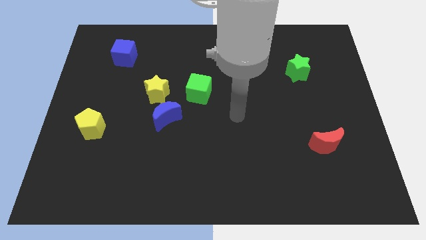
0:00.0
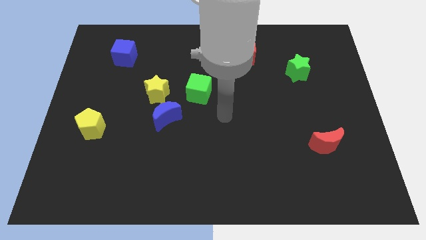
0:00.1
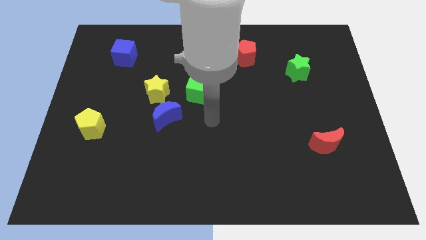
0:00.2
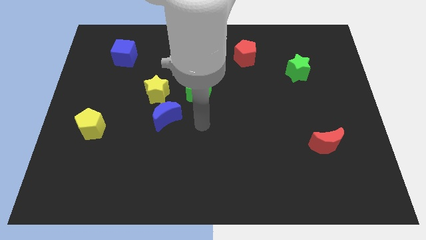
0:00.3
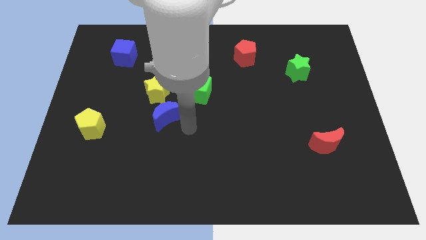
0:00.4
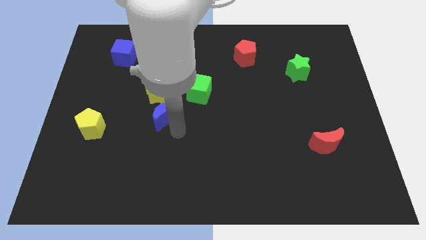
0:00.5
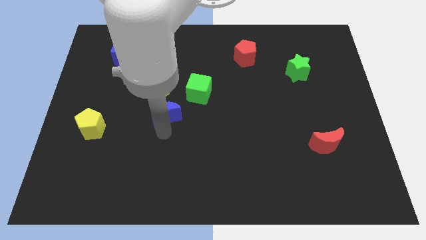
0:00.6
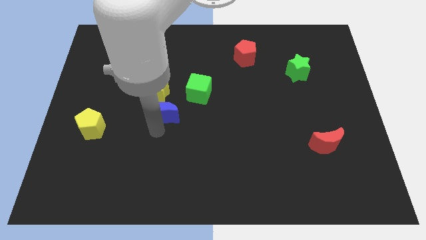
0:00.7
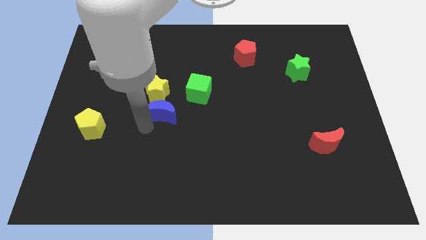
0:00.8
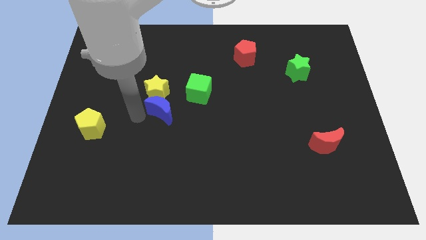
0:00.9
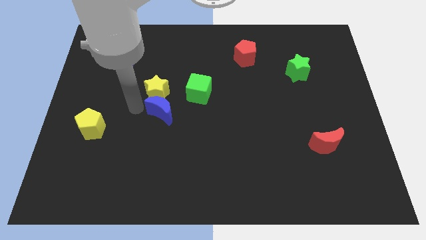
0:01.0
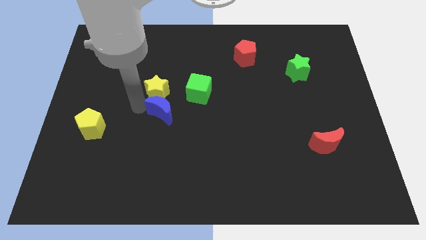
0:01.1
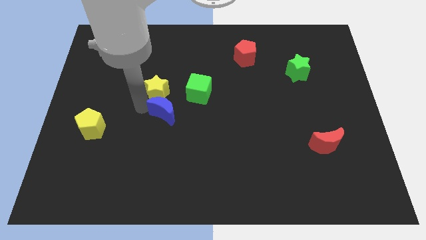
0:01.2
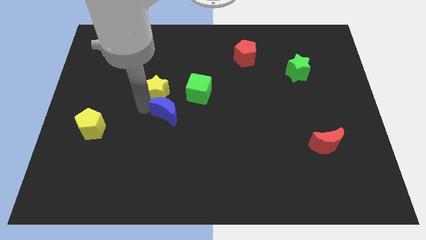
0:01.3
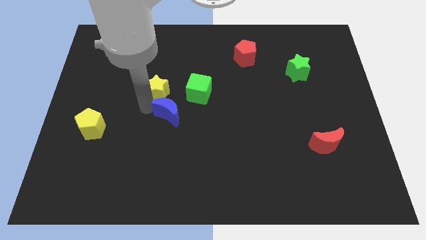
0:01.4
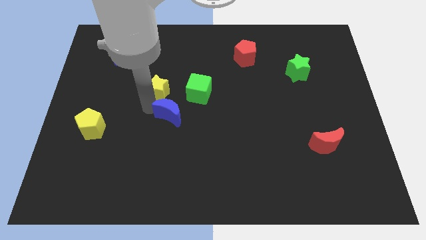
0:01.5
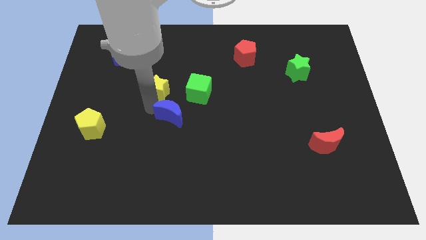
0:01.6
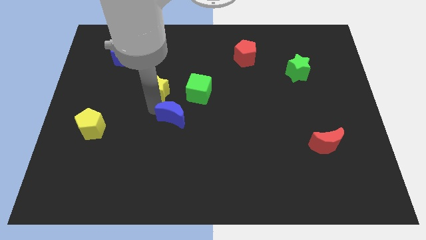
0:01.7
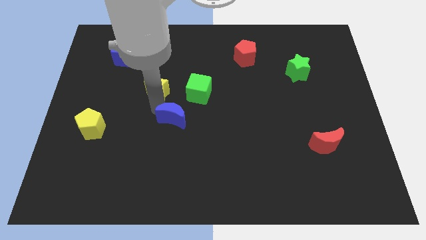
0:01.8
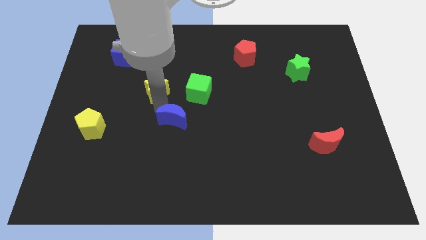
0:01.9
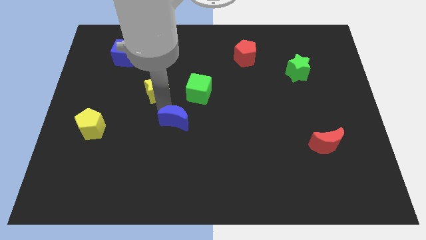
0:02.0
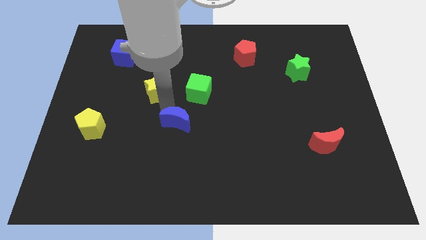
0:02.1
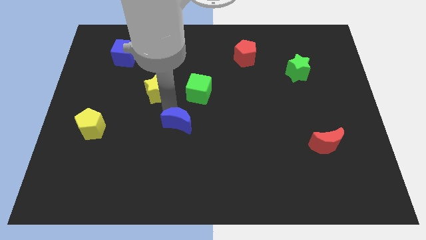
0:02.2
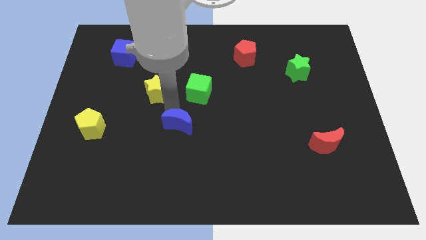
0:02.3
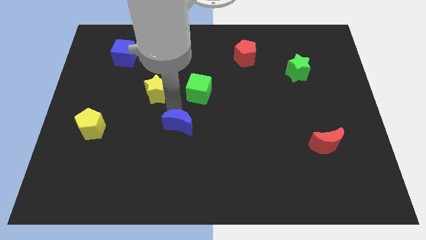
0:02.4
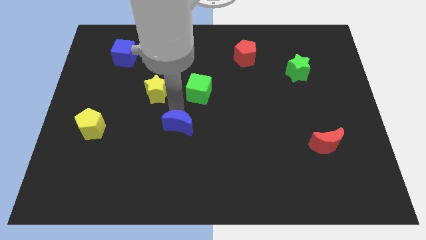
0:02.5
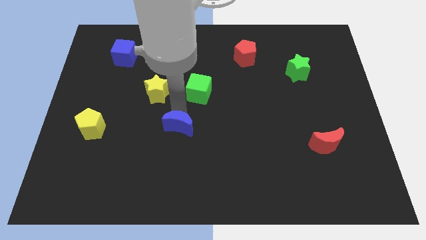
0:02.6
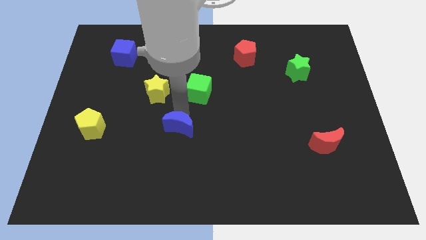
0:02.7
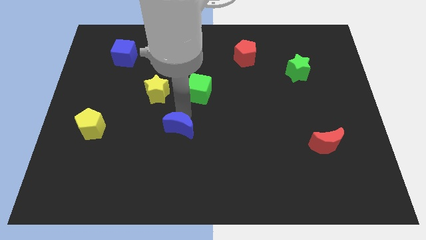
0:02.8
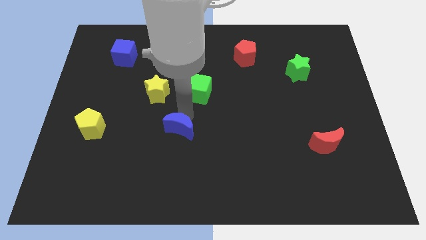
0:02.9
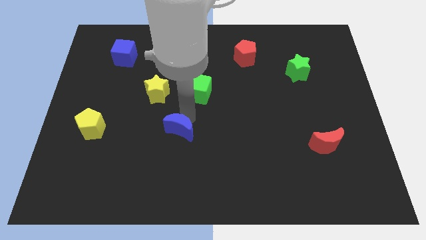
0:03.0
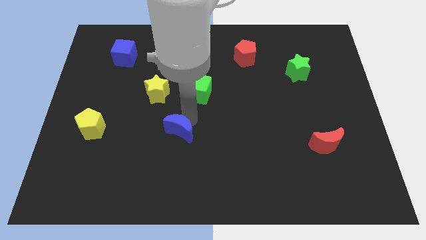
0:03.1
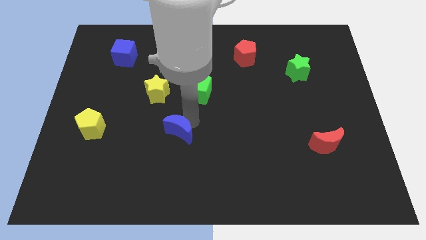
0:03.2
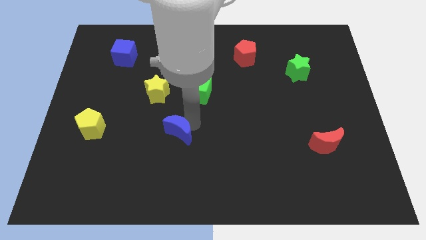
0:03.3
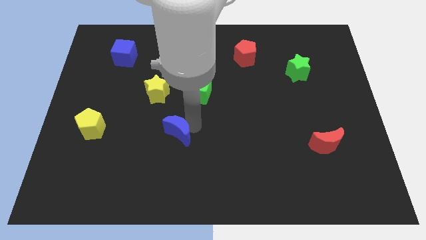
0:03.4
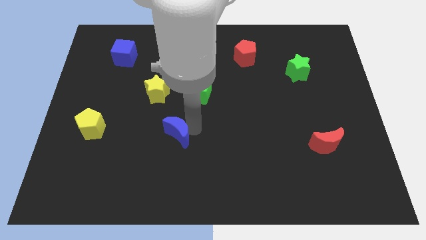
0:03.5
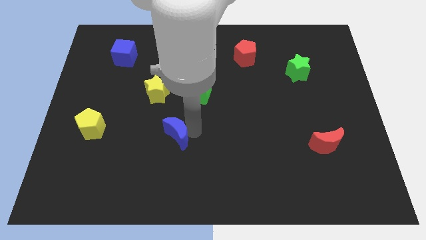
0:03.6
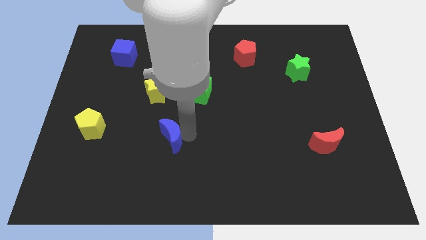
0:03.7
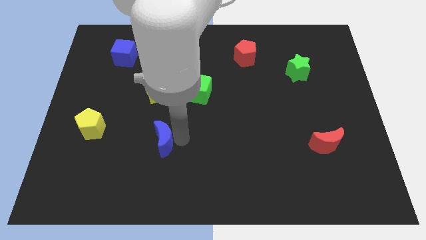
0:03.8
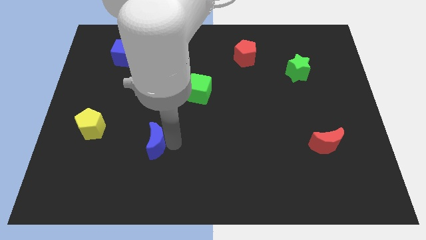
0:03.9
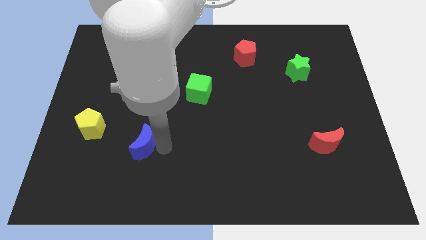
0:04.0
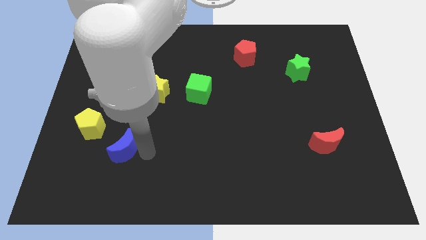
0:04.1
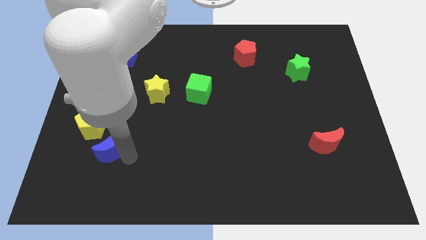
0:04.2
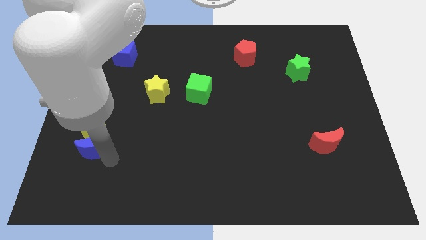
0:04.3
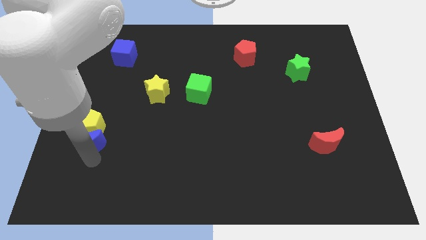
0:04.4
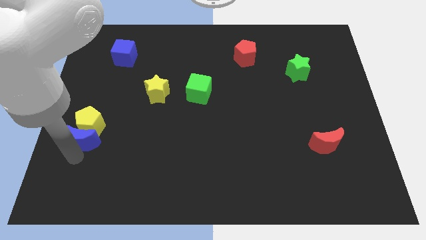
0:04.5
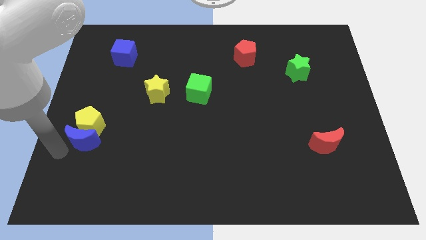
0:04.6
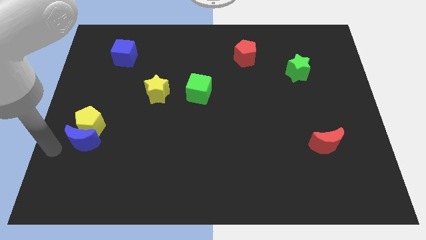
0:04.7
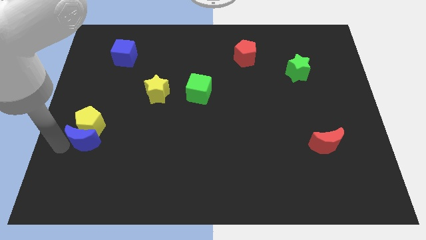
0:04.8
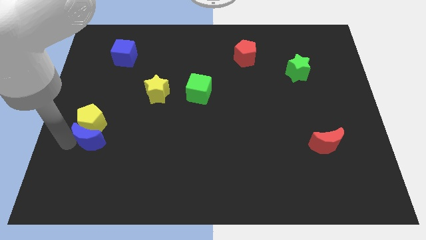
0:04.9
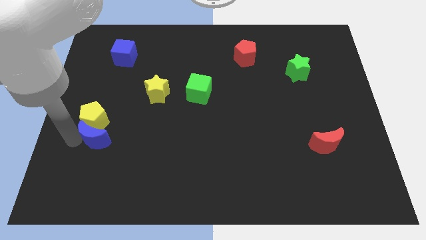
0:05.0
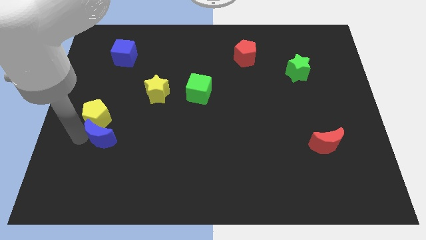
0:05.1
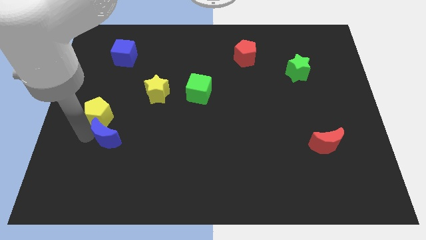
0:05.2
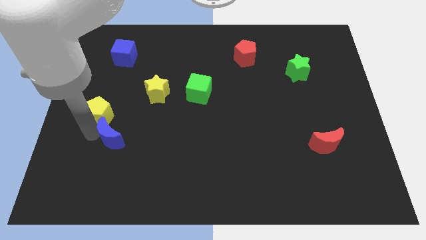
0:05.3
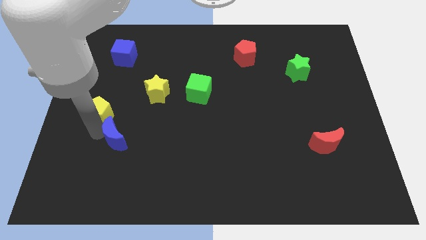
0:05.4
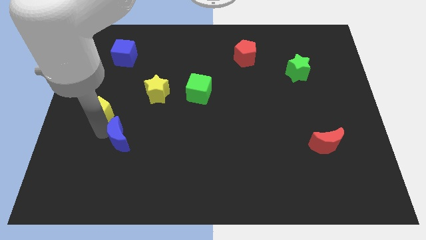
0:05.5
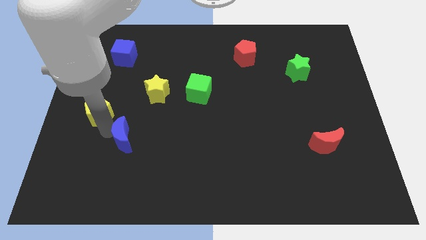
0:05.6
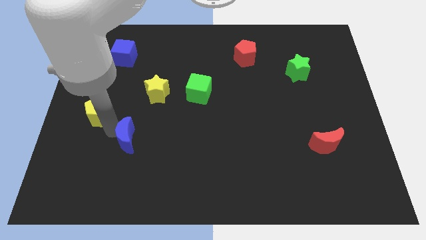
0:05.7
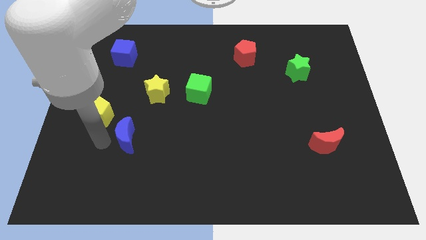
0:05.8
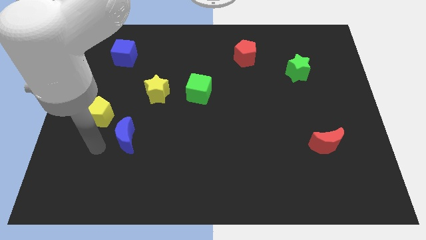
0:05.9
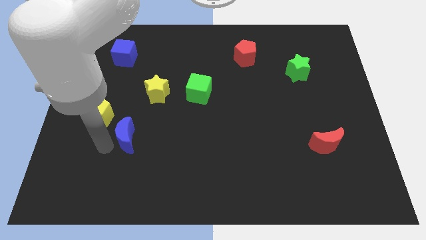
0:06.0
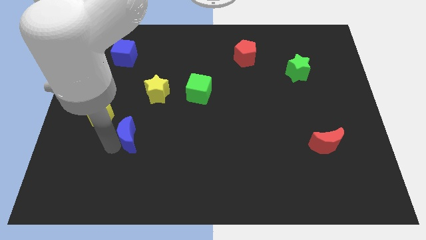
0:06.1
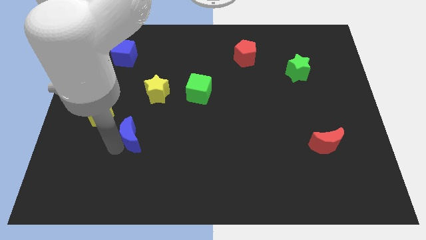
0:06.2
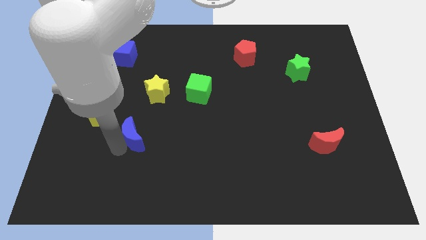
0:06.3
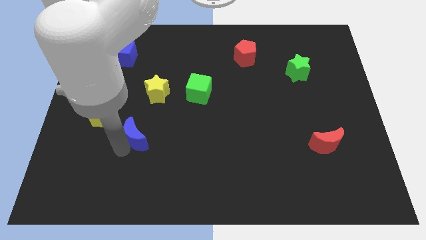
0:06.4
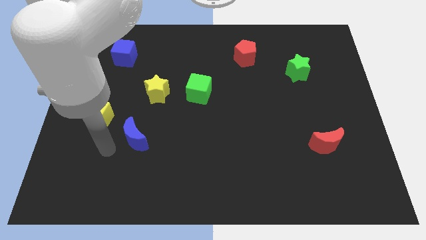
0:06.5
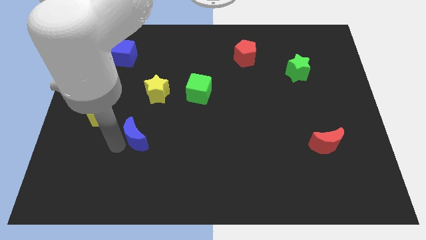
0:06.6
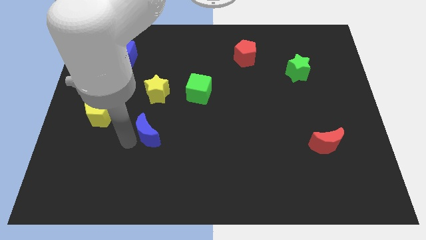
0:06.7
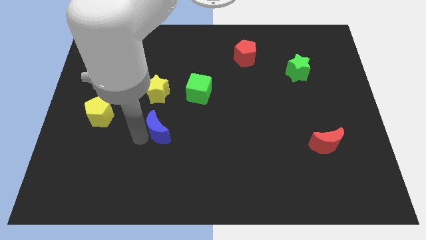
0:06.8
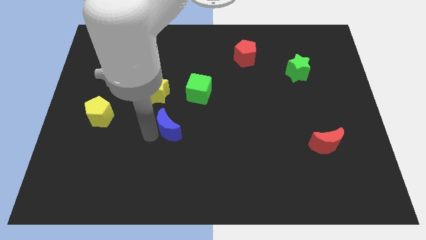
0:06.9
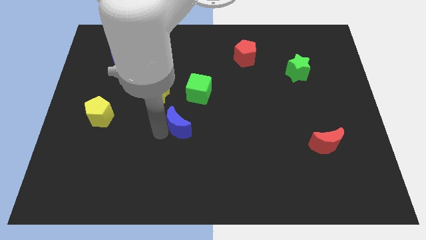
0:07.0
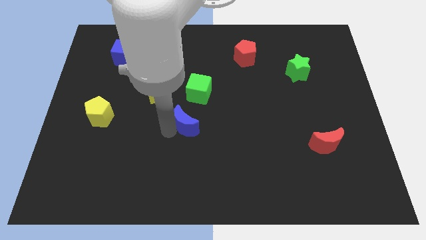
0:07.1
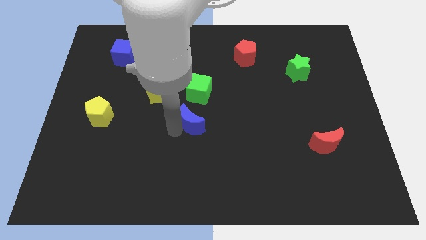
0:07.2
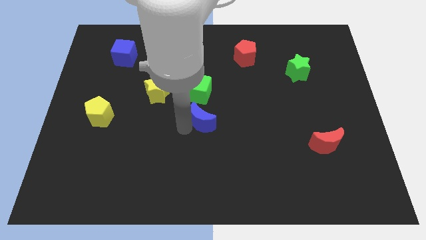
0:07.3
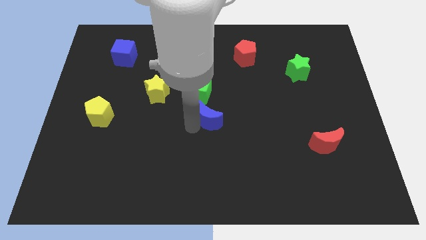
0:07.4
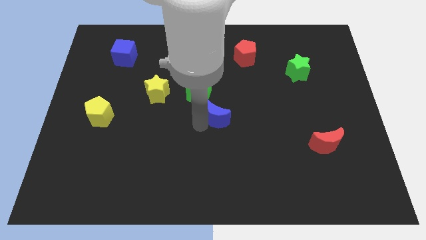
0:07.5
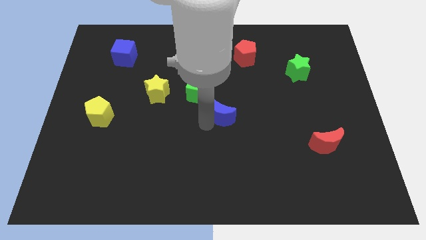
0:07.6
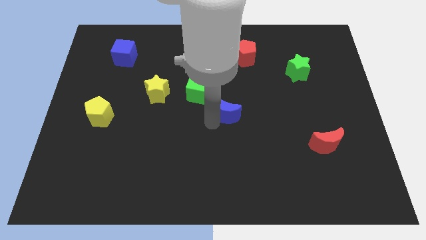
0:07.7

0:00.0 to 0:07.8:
slide the blue moon up and right slightly

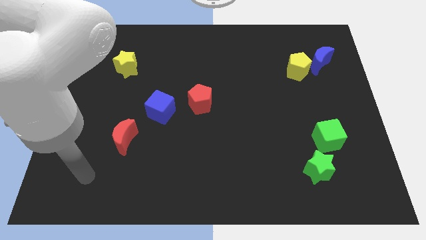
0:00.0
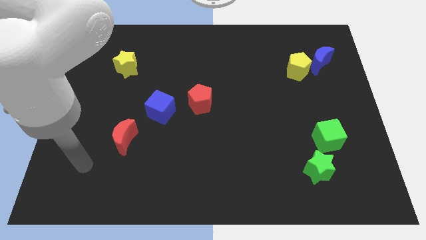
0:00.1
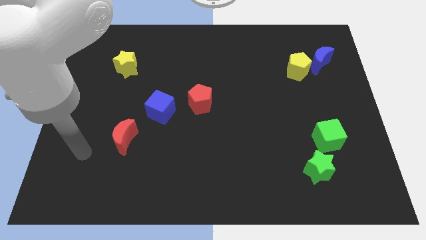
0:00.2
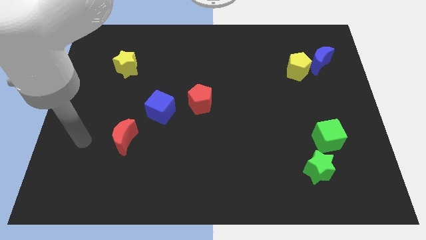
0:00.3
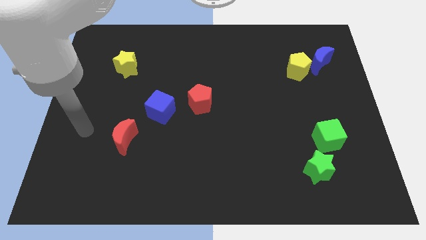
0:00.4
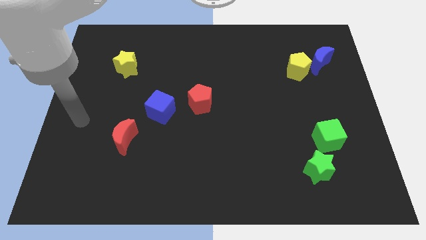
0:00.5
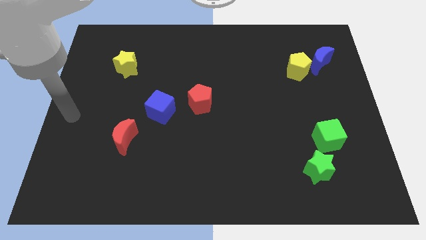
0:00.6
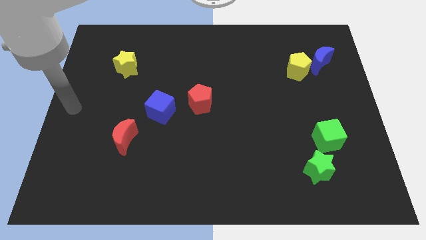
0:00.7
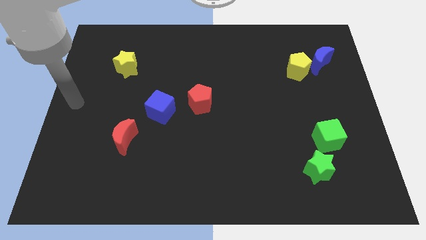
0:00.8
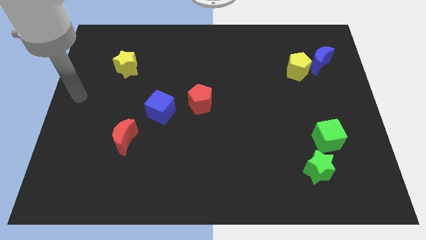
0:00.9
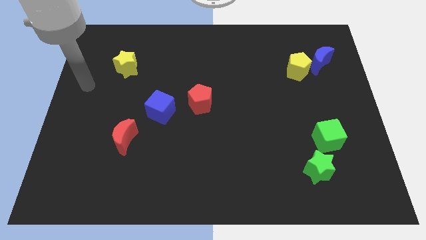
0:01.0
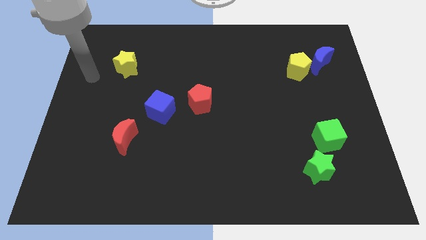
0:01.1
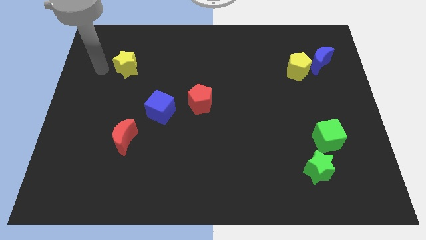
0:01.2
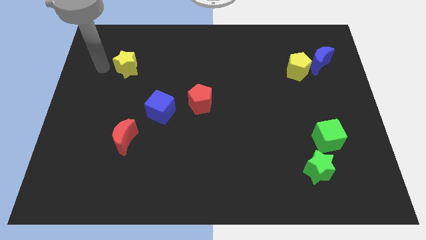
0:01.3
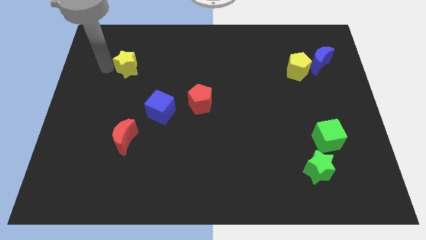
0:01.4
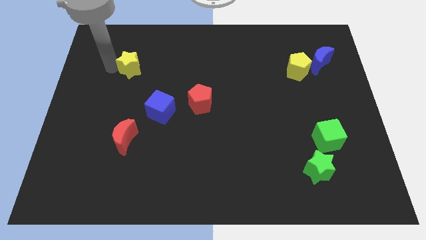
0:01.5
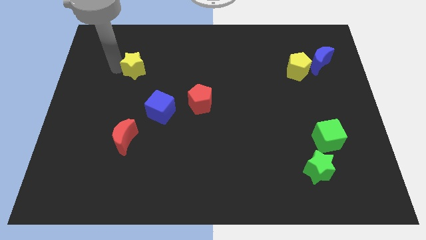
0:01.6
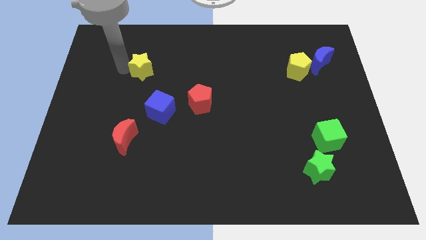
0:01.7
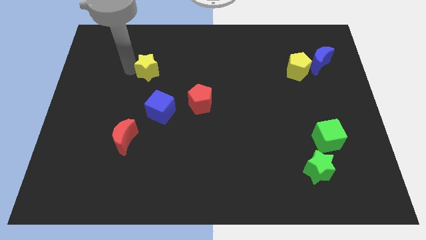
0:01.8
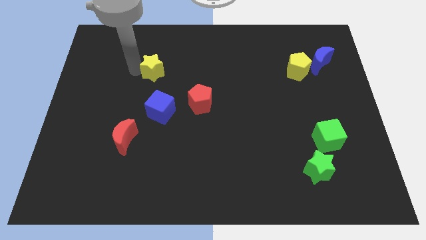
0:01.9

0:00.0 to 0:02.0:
move the yellow star to the right somewhat
